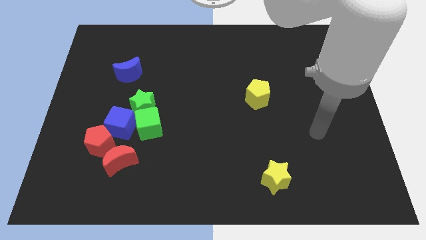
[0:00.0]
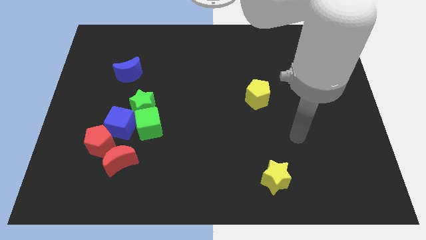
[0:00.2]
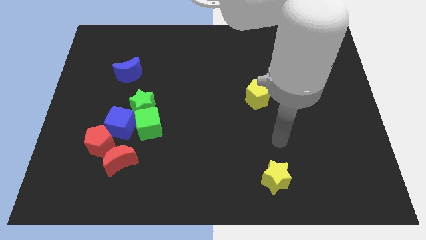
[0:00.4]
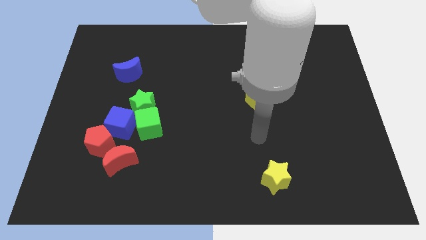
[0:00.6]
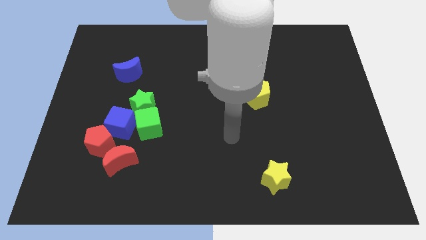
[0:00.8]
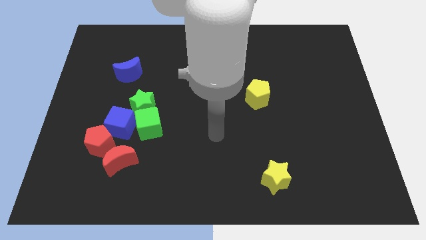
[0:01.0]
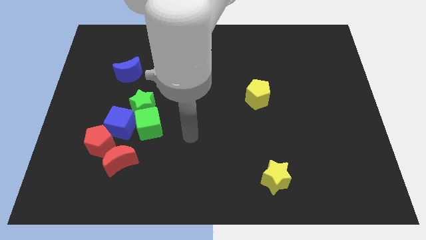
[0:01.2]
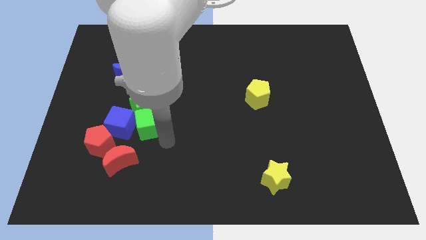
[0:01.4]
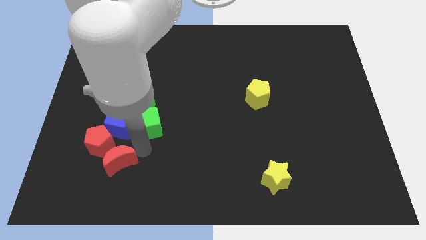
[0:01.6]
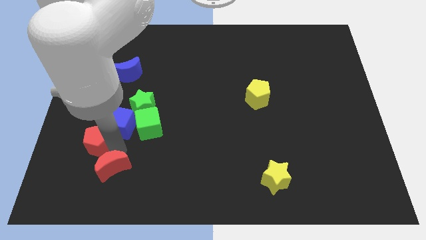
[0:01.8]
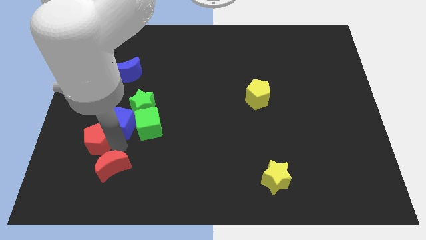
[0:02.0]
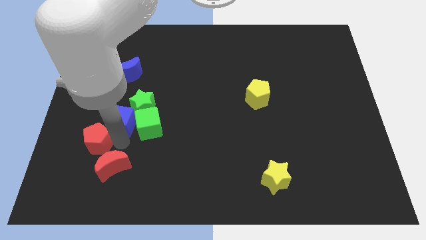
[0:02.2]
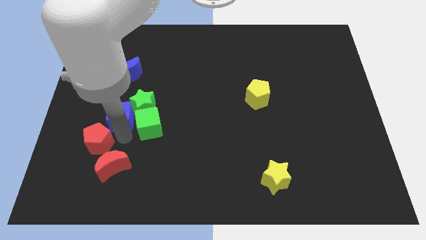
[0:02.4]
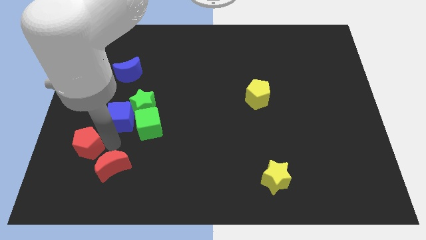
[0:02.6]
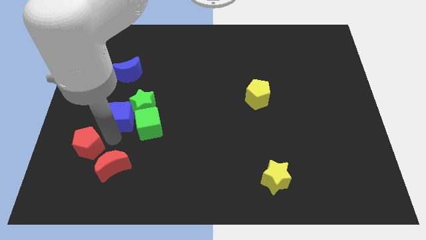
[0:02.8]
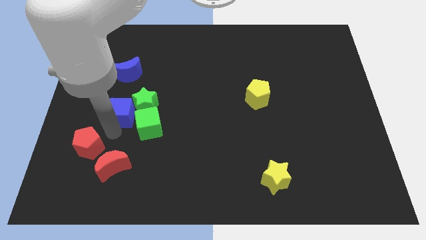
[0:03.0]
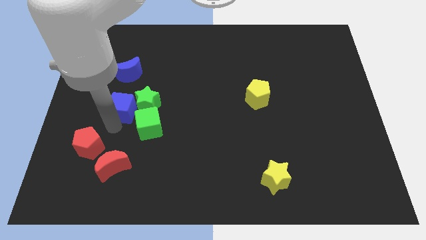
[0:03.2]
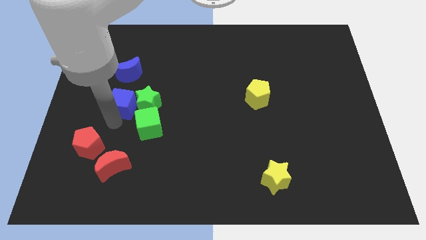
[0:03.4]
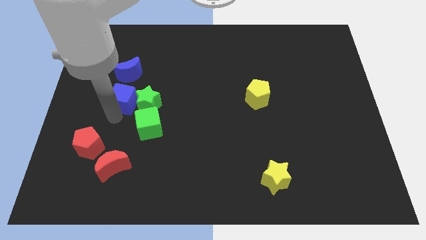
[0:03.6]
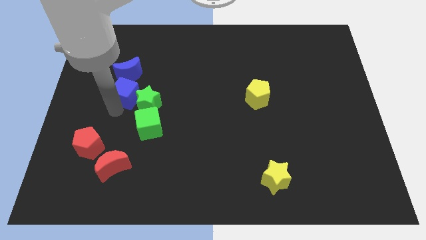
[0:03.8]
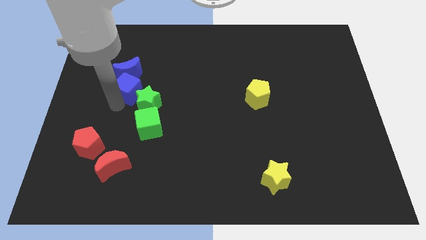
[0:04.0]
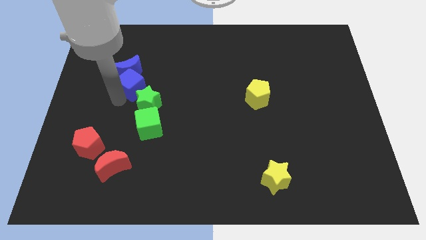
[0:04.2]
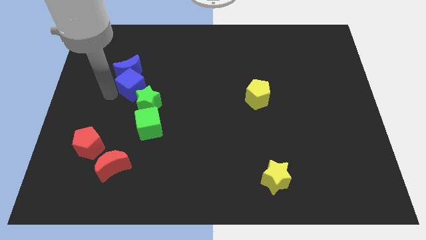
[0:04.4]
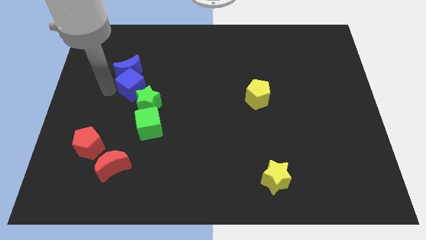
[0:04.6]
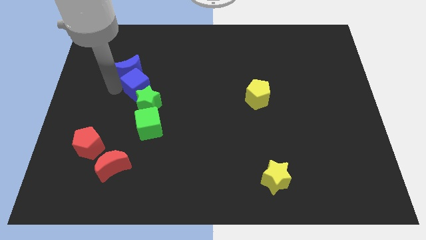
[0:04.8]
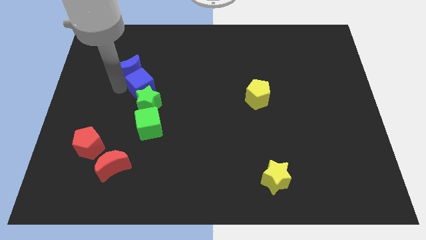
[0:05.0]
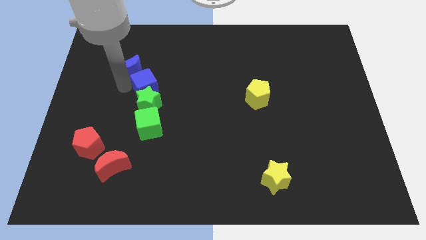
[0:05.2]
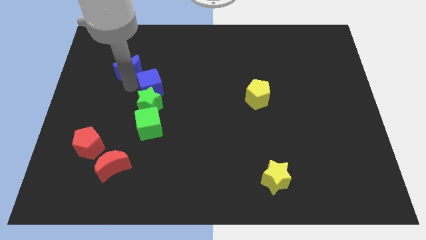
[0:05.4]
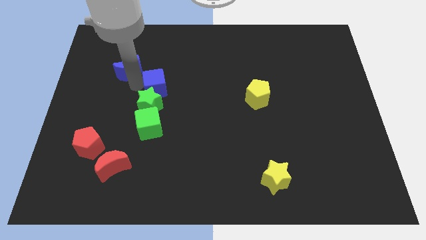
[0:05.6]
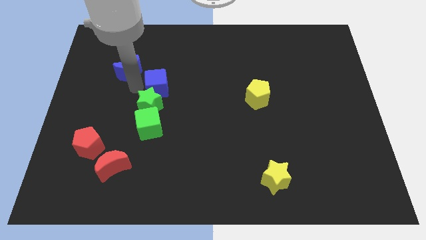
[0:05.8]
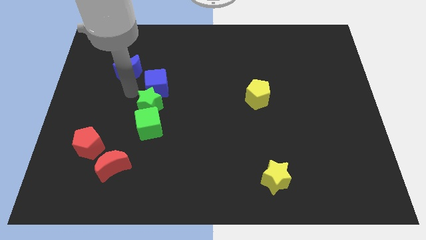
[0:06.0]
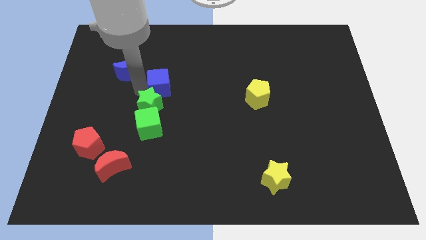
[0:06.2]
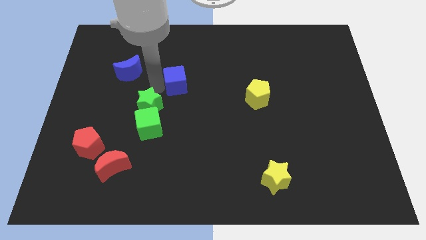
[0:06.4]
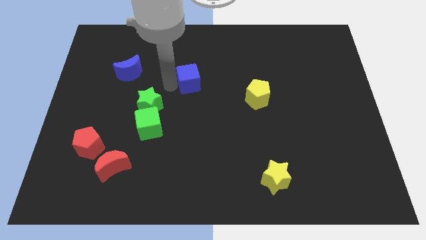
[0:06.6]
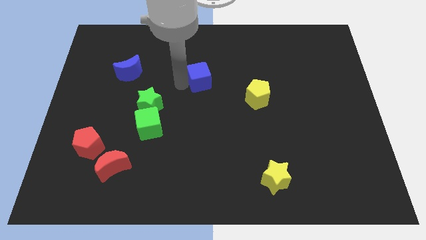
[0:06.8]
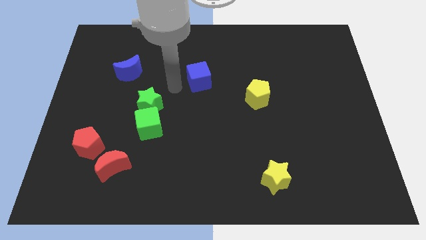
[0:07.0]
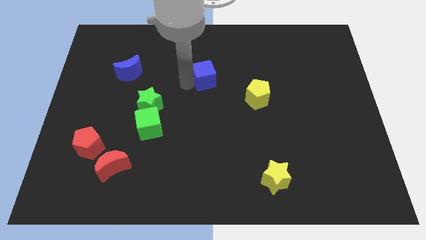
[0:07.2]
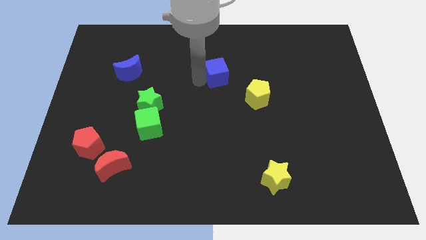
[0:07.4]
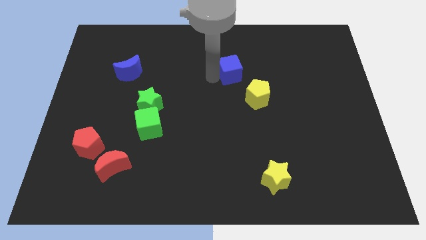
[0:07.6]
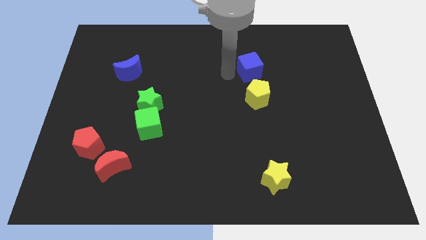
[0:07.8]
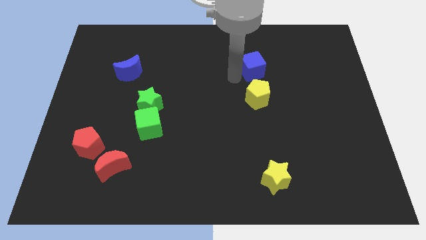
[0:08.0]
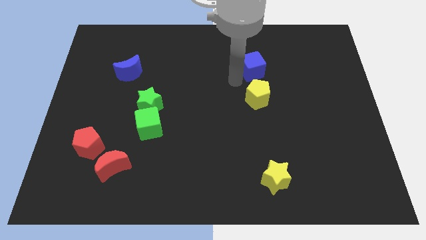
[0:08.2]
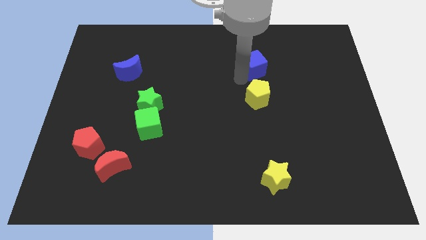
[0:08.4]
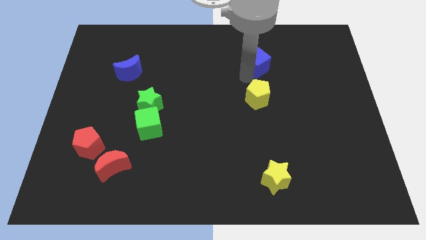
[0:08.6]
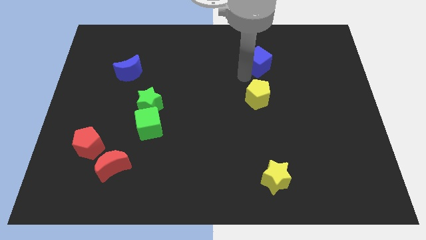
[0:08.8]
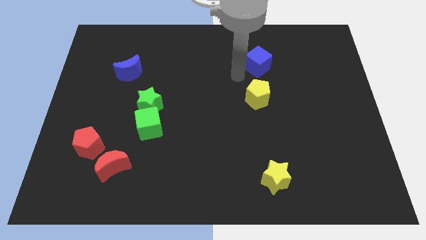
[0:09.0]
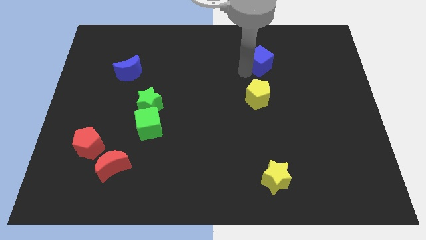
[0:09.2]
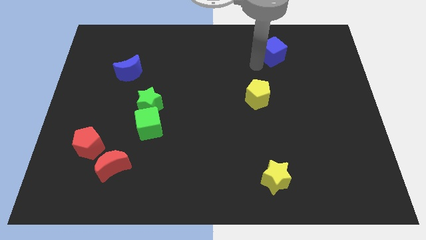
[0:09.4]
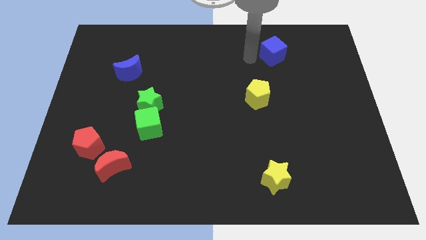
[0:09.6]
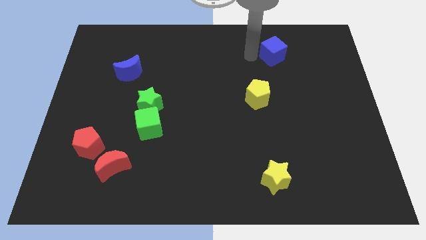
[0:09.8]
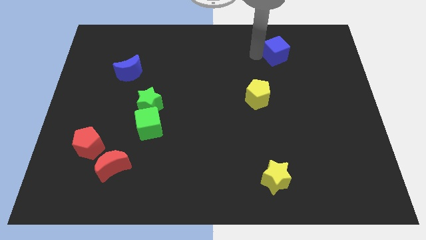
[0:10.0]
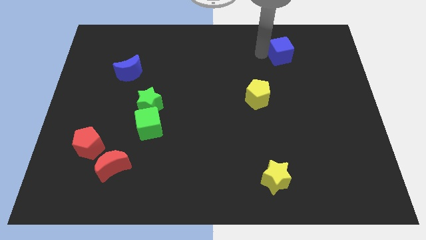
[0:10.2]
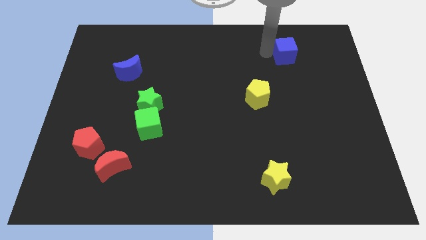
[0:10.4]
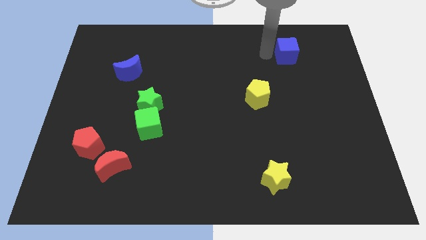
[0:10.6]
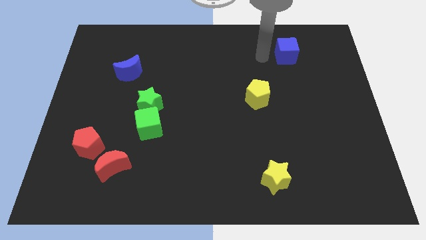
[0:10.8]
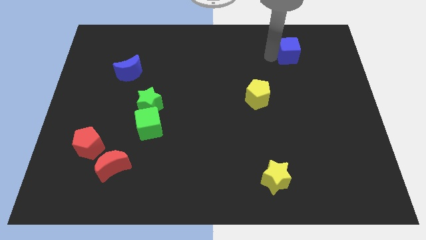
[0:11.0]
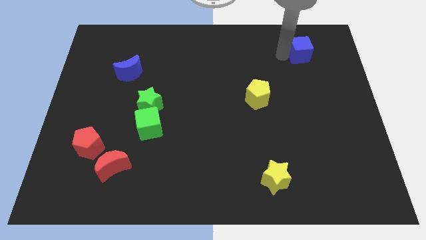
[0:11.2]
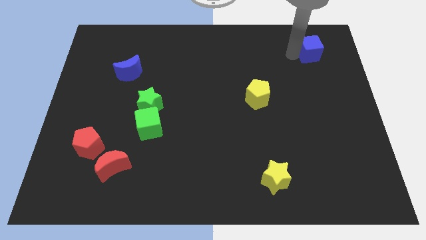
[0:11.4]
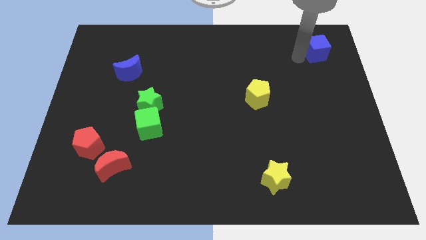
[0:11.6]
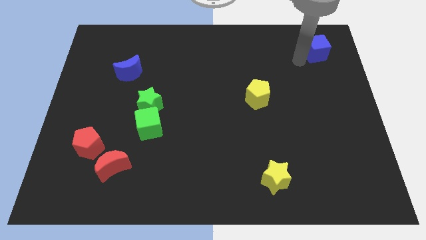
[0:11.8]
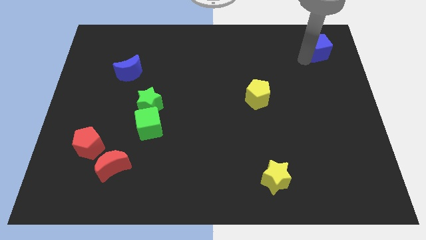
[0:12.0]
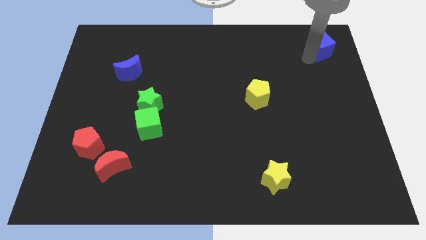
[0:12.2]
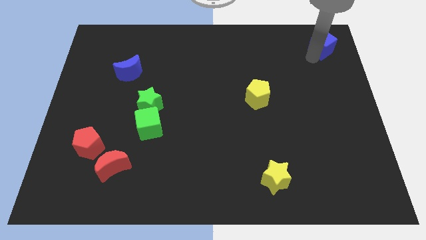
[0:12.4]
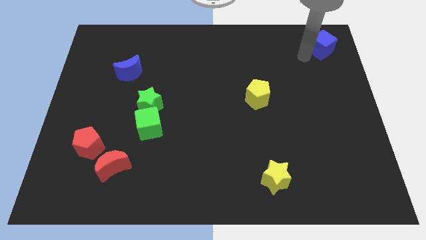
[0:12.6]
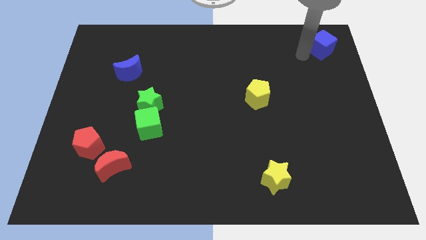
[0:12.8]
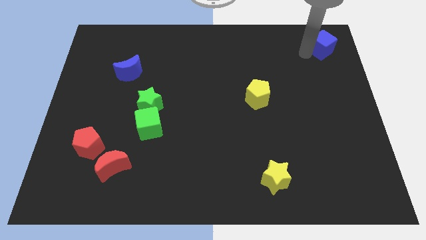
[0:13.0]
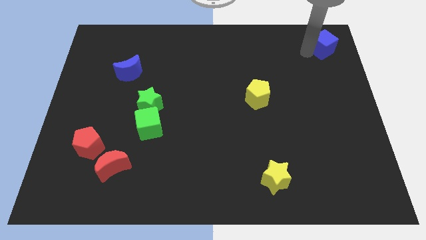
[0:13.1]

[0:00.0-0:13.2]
push the blue cube to the top right corner

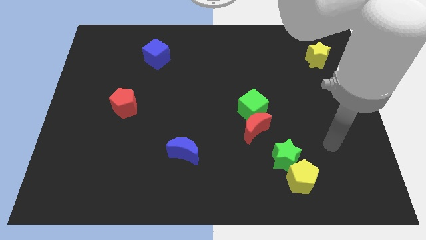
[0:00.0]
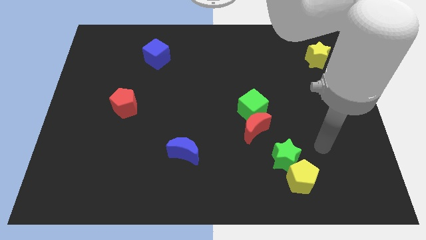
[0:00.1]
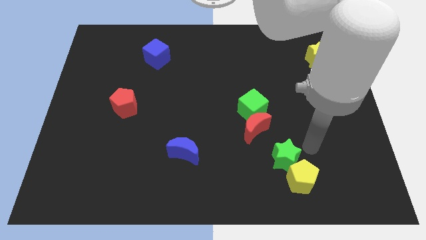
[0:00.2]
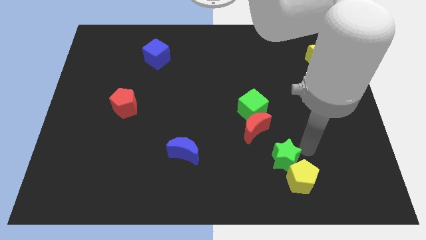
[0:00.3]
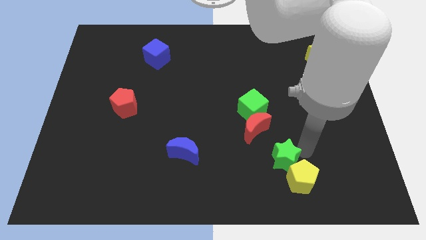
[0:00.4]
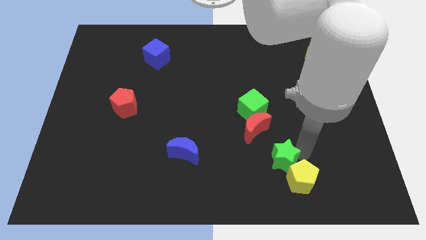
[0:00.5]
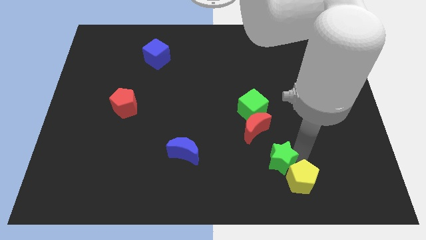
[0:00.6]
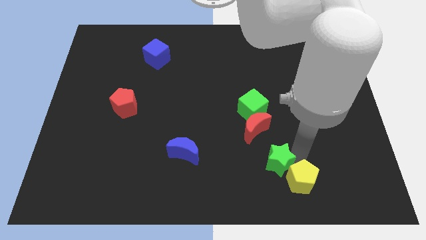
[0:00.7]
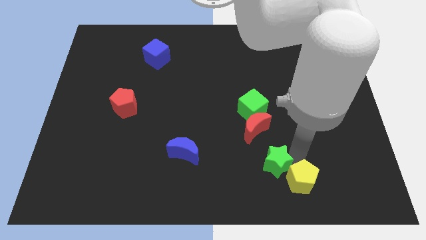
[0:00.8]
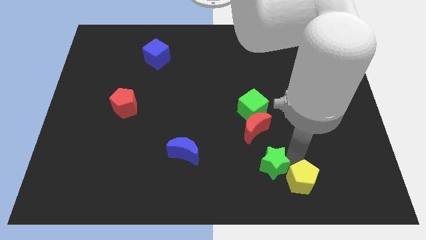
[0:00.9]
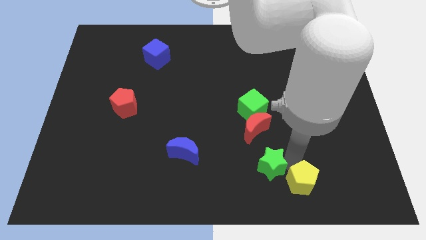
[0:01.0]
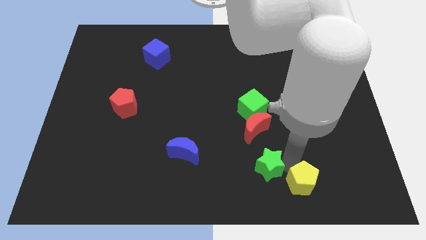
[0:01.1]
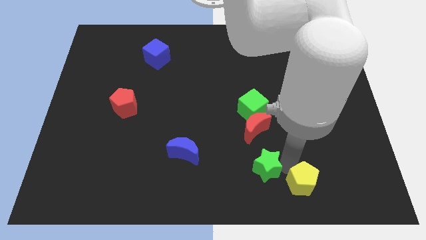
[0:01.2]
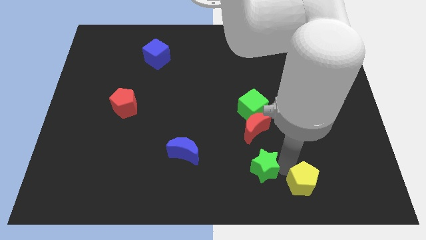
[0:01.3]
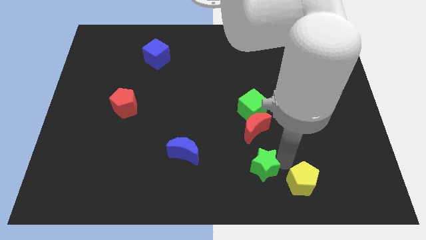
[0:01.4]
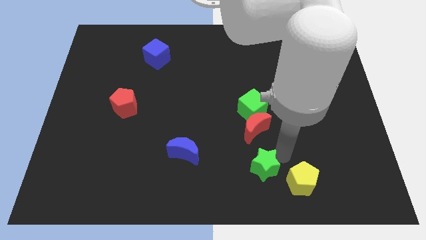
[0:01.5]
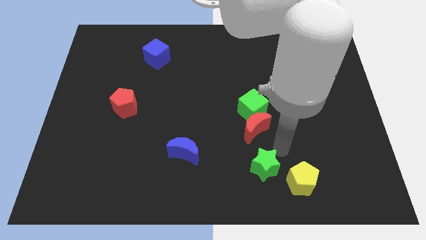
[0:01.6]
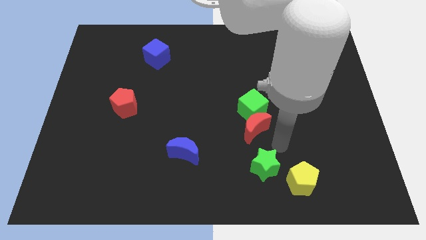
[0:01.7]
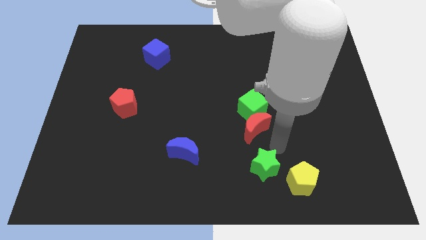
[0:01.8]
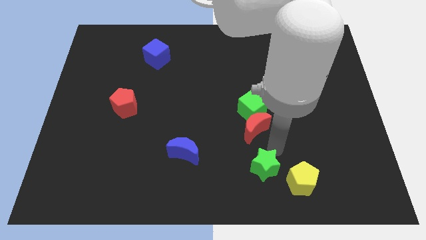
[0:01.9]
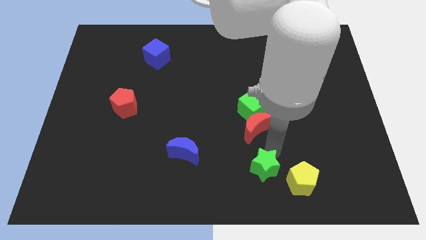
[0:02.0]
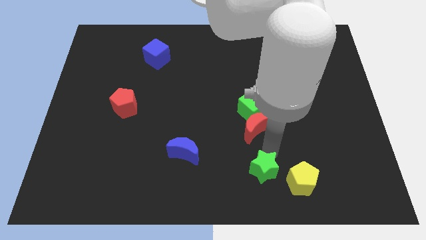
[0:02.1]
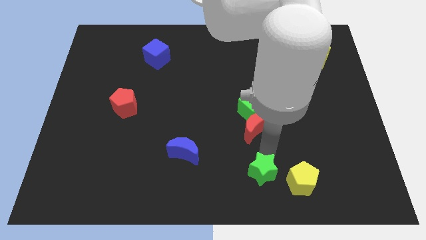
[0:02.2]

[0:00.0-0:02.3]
push the green star to the bottom side
